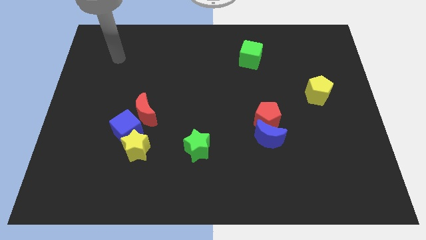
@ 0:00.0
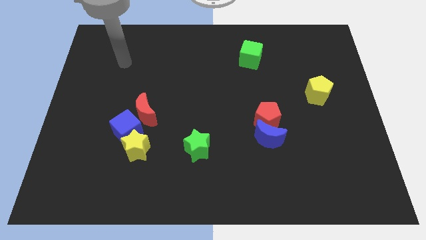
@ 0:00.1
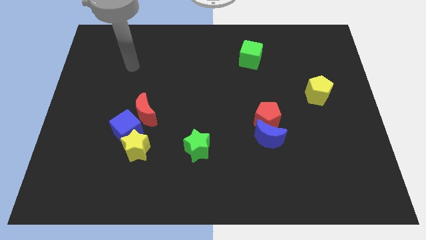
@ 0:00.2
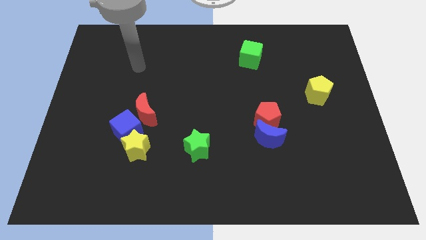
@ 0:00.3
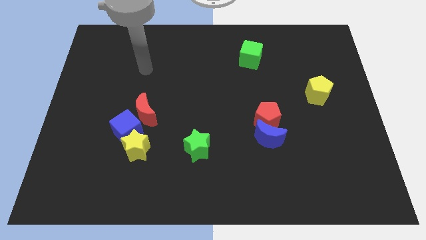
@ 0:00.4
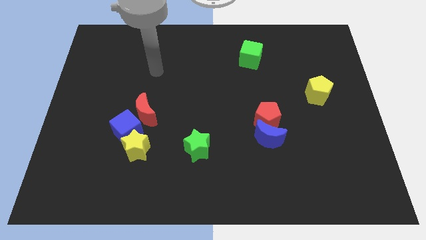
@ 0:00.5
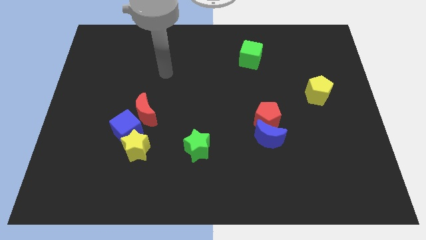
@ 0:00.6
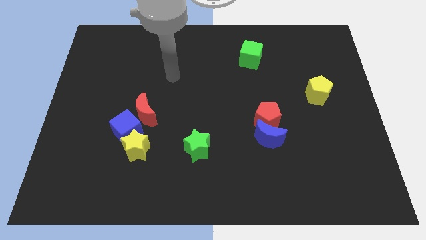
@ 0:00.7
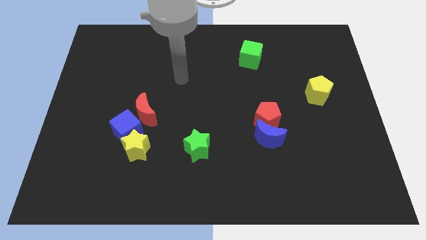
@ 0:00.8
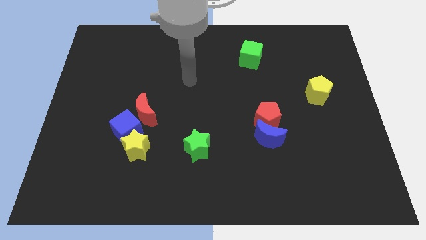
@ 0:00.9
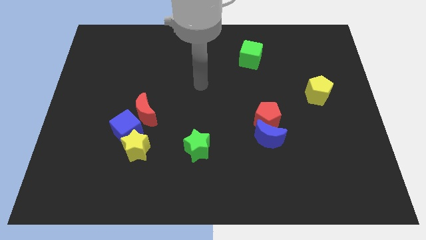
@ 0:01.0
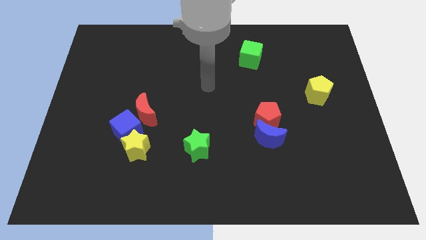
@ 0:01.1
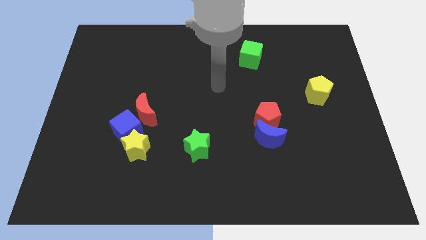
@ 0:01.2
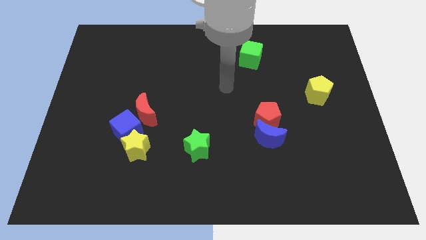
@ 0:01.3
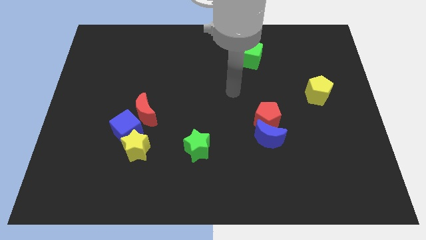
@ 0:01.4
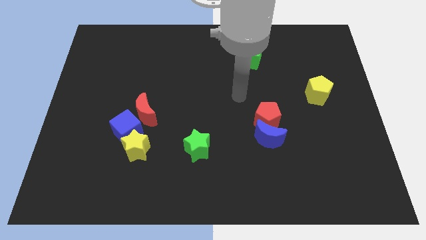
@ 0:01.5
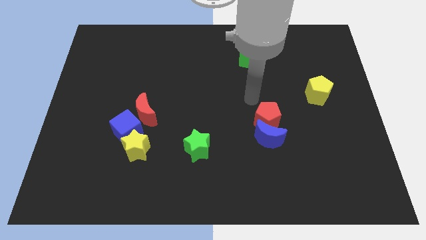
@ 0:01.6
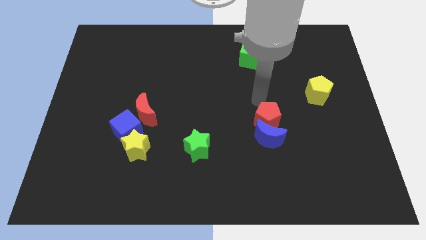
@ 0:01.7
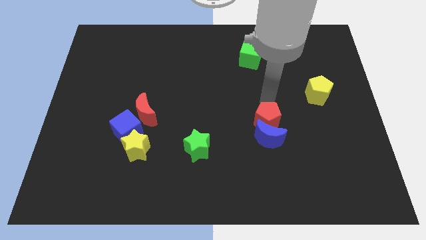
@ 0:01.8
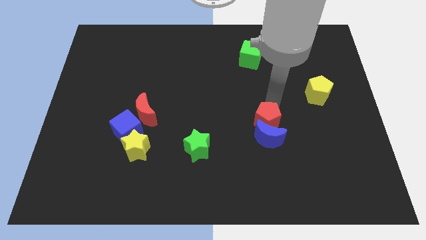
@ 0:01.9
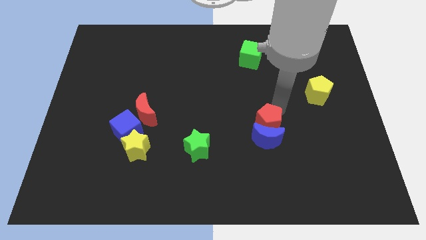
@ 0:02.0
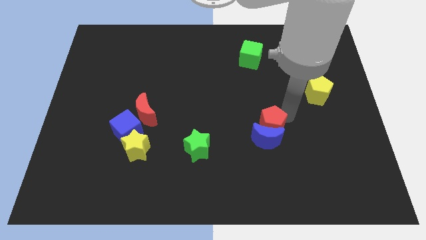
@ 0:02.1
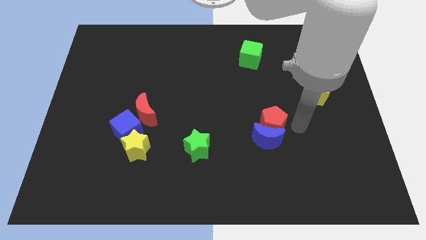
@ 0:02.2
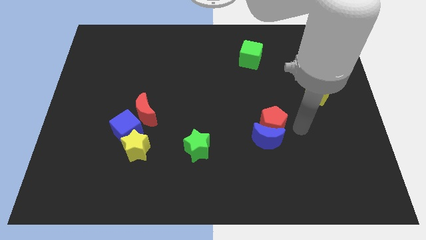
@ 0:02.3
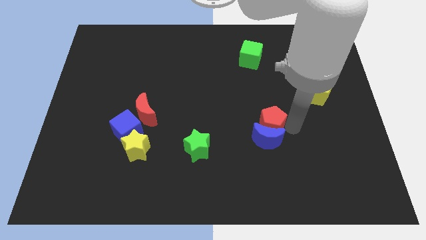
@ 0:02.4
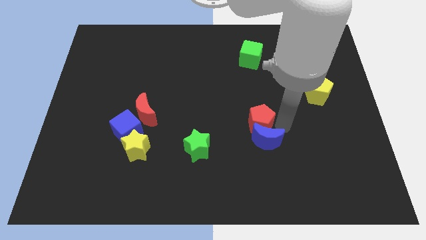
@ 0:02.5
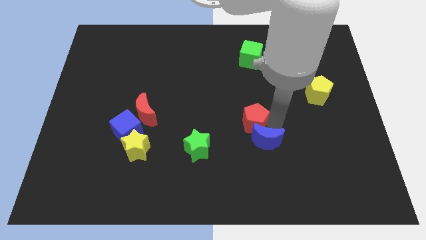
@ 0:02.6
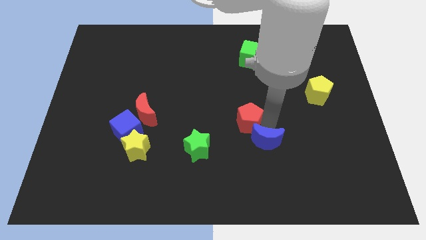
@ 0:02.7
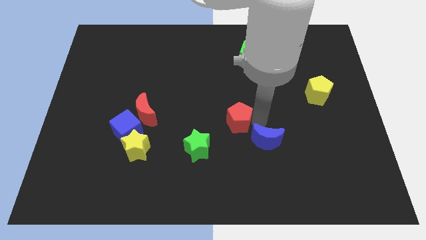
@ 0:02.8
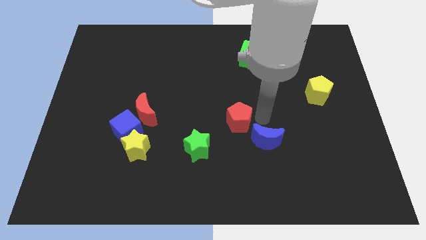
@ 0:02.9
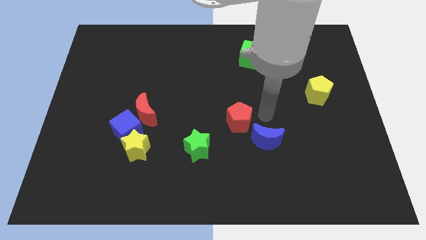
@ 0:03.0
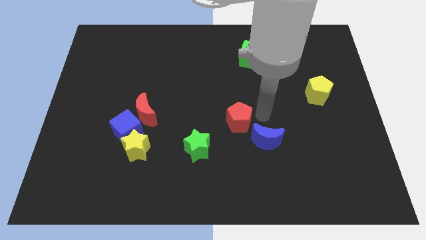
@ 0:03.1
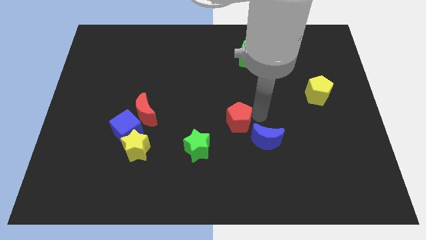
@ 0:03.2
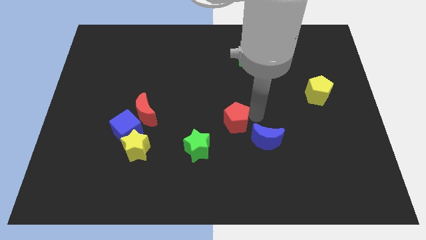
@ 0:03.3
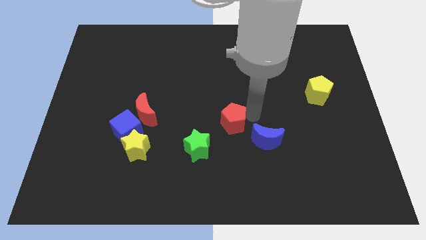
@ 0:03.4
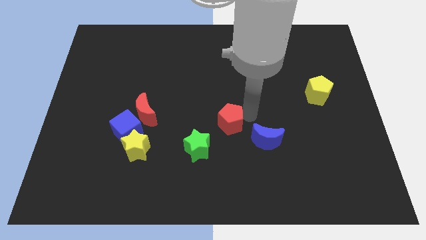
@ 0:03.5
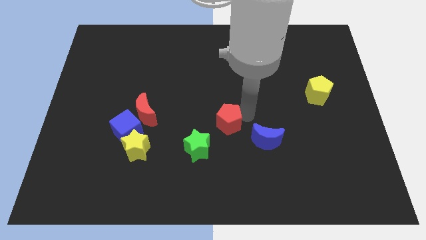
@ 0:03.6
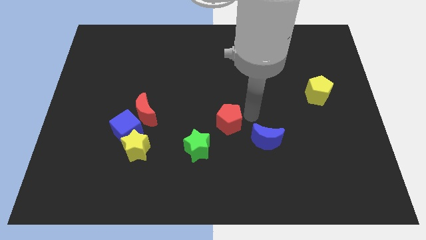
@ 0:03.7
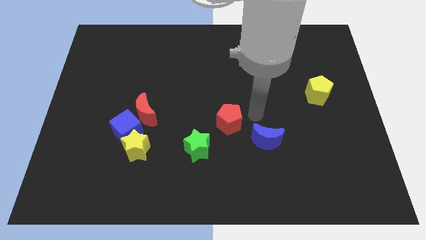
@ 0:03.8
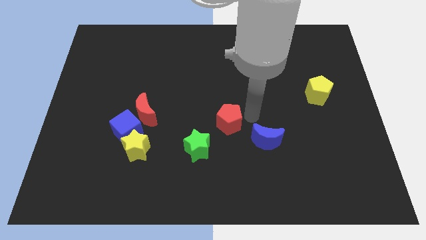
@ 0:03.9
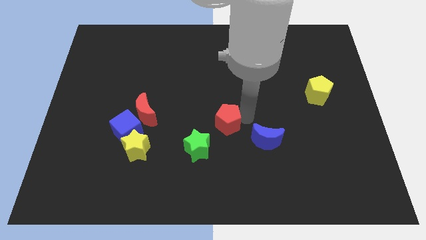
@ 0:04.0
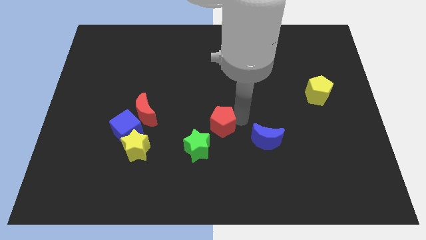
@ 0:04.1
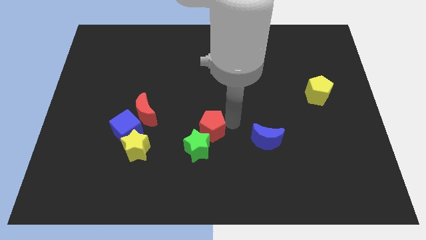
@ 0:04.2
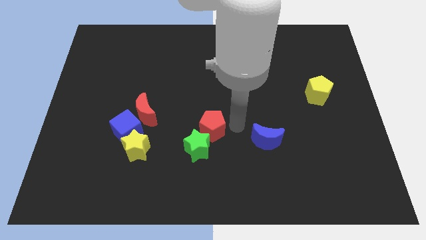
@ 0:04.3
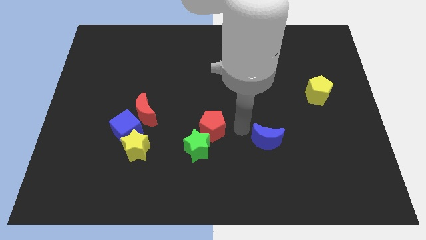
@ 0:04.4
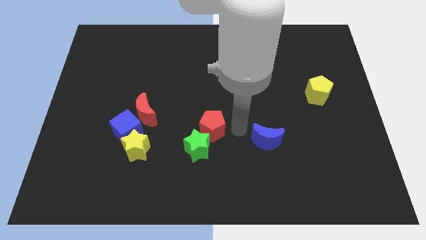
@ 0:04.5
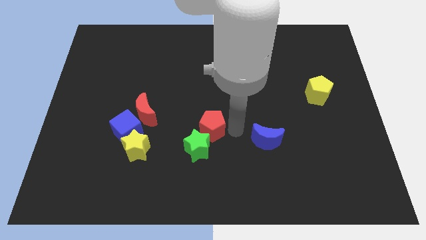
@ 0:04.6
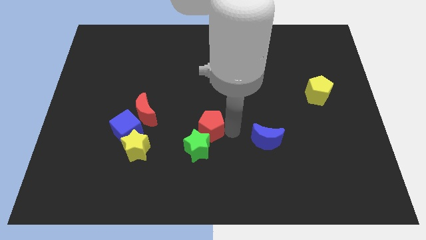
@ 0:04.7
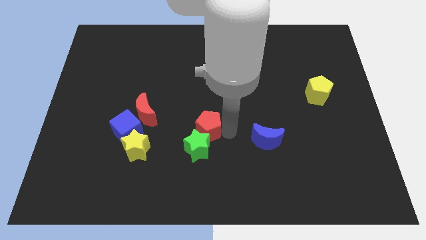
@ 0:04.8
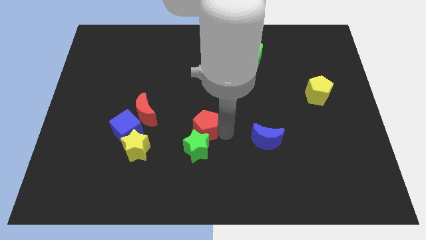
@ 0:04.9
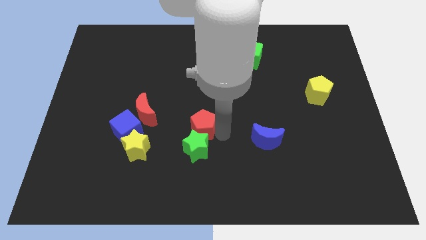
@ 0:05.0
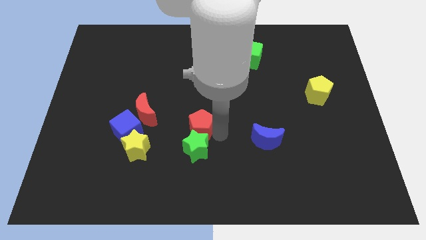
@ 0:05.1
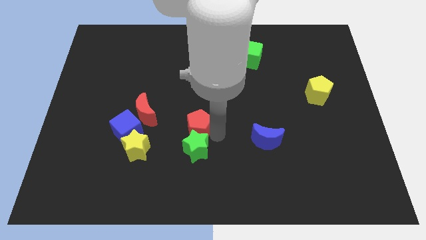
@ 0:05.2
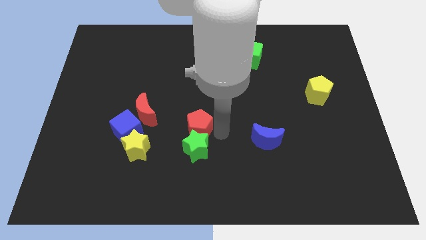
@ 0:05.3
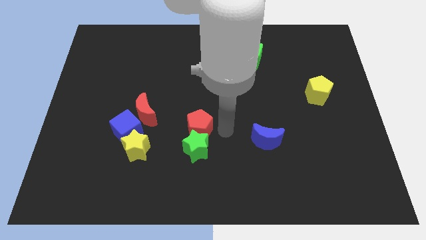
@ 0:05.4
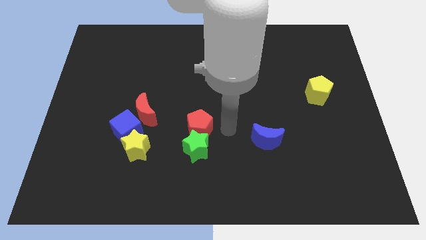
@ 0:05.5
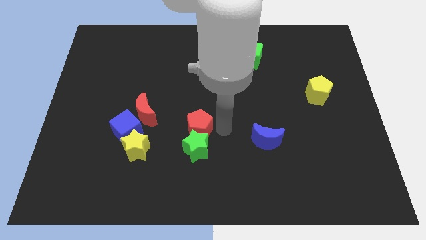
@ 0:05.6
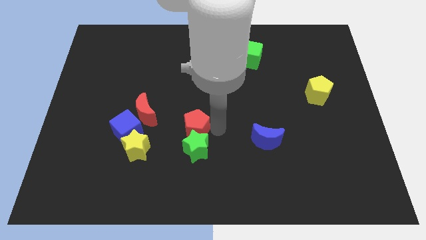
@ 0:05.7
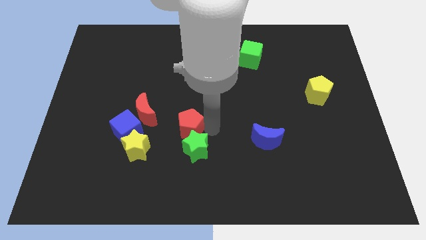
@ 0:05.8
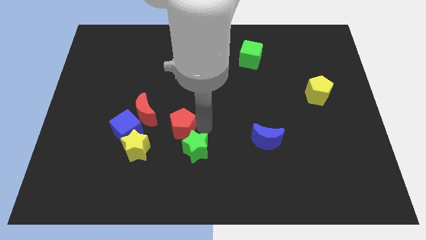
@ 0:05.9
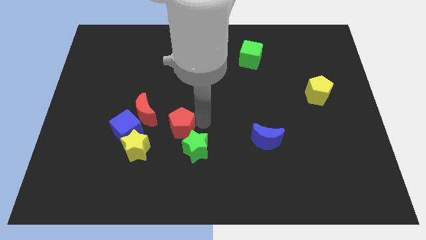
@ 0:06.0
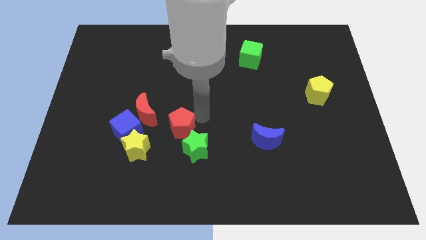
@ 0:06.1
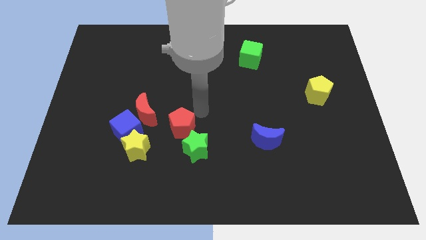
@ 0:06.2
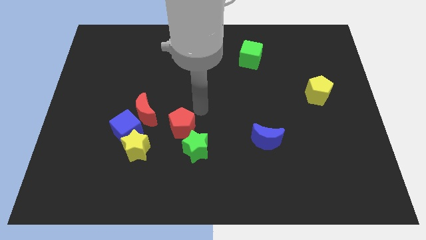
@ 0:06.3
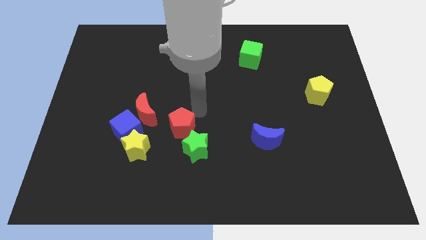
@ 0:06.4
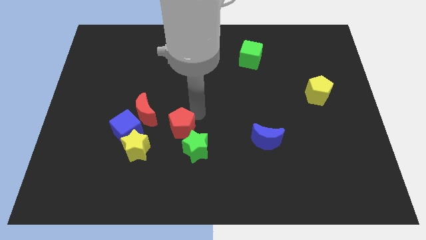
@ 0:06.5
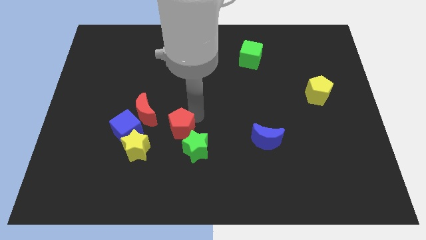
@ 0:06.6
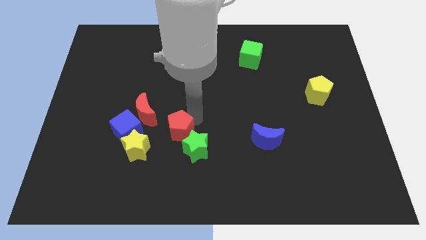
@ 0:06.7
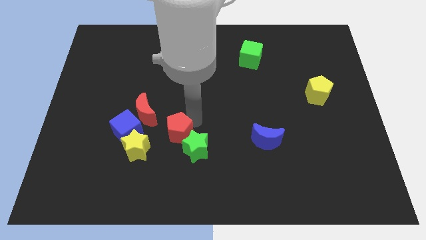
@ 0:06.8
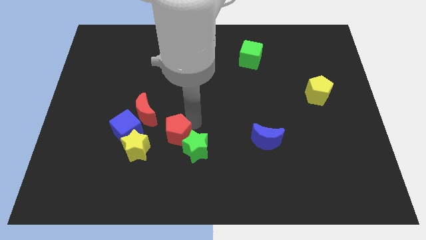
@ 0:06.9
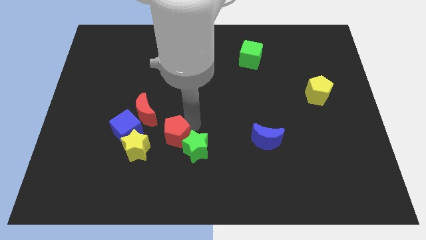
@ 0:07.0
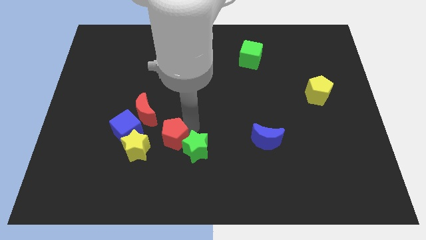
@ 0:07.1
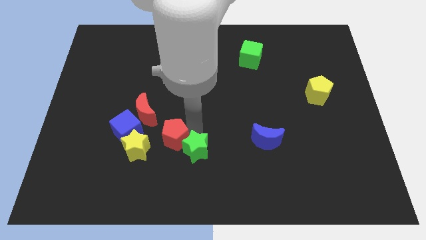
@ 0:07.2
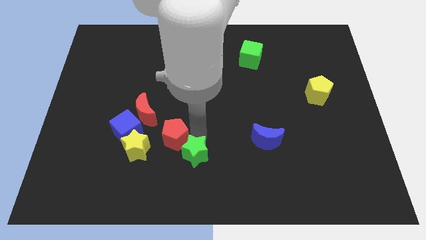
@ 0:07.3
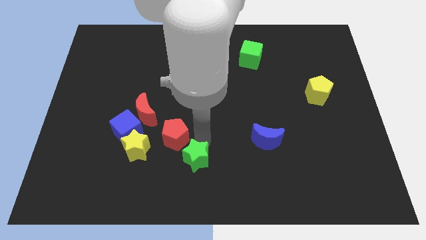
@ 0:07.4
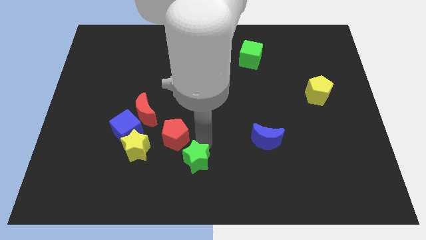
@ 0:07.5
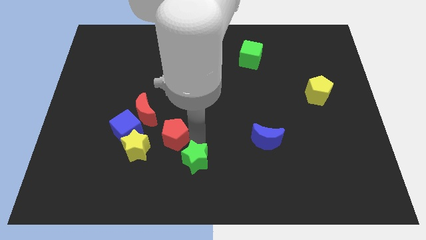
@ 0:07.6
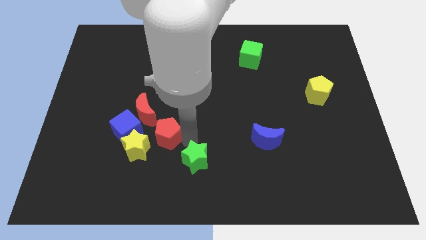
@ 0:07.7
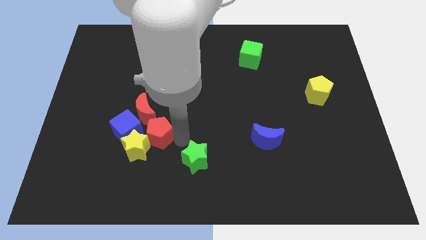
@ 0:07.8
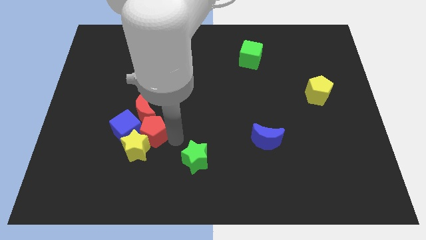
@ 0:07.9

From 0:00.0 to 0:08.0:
move the red pentagon towards the blue cube
